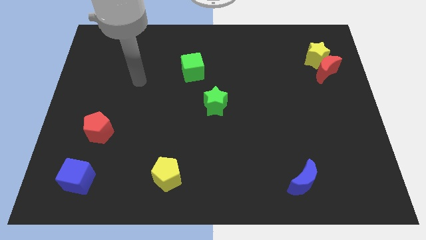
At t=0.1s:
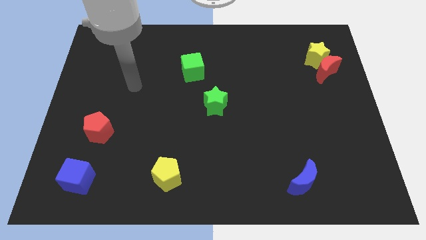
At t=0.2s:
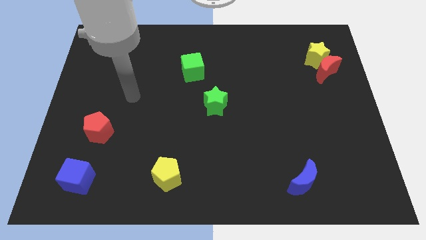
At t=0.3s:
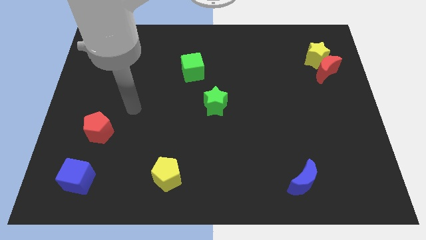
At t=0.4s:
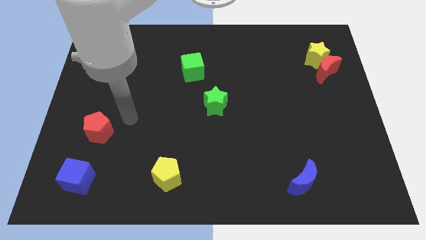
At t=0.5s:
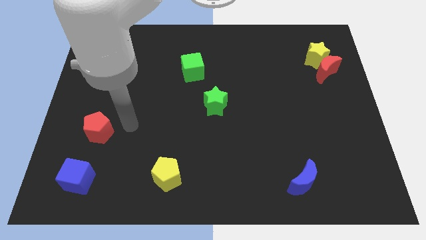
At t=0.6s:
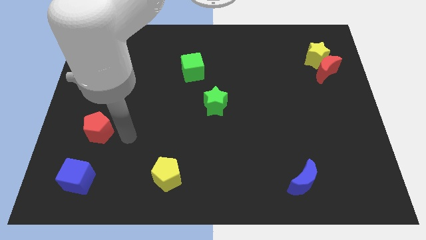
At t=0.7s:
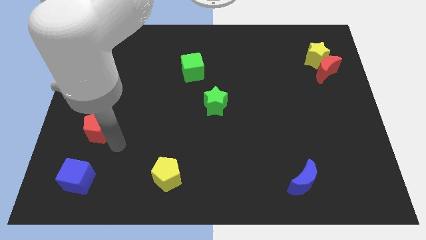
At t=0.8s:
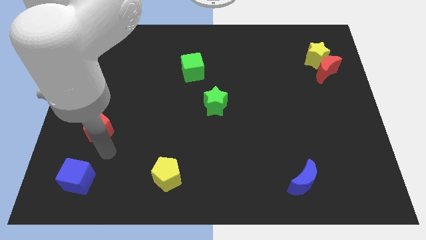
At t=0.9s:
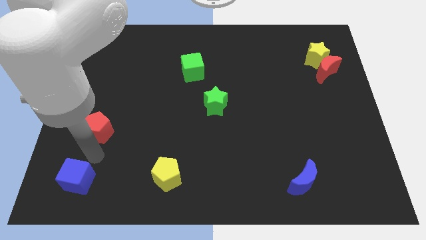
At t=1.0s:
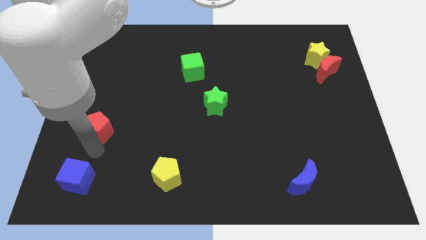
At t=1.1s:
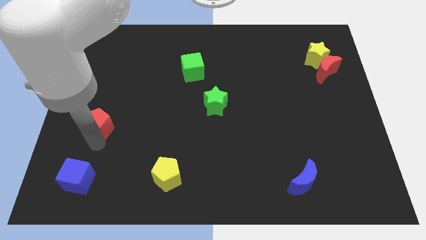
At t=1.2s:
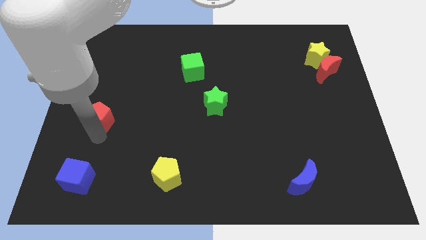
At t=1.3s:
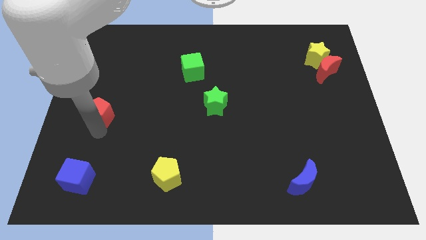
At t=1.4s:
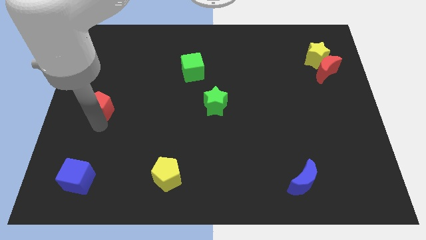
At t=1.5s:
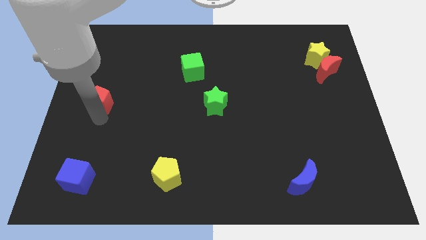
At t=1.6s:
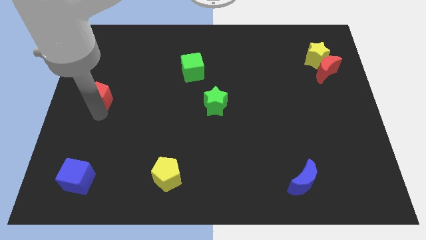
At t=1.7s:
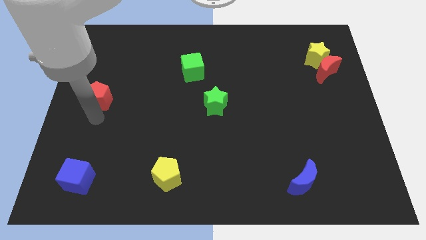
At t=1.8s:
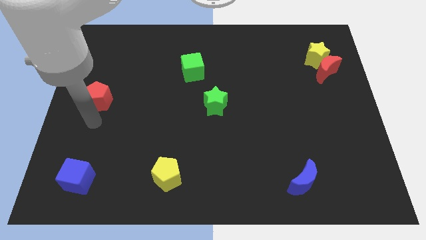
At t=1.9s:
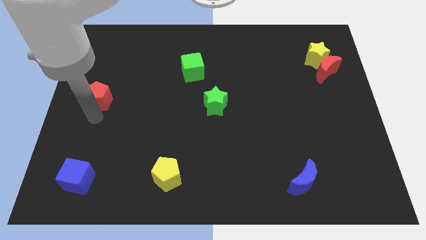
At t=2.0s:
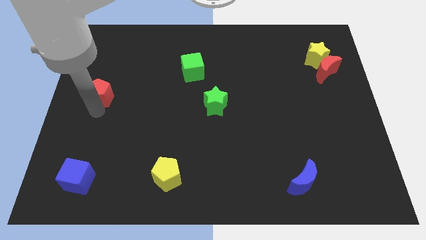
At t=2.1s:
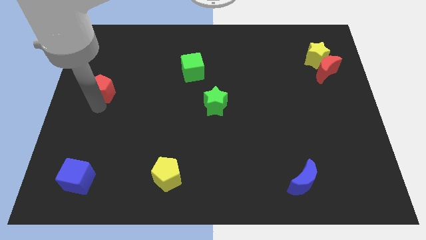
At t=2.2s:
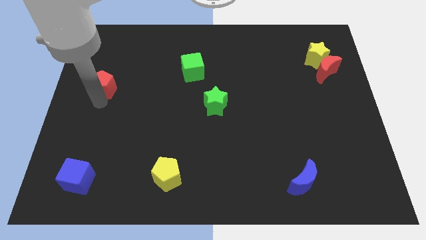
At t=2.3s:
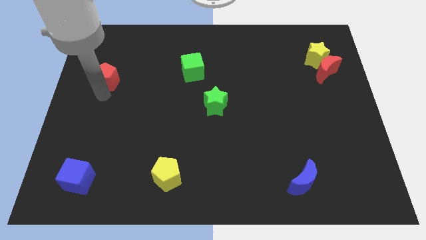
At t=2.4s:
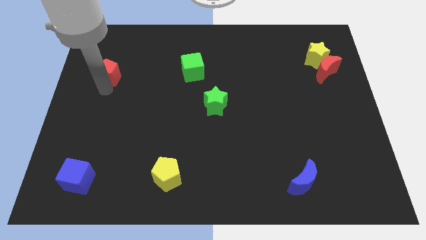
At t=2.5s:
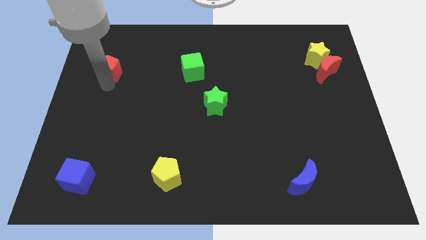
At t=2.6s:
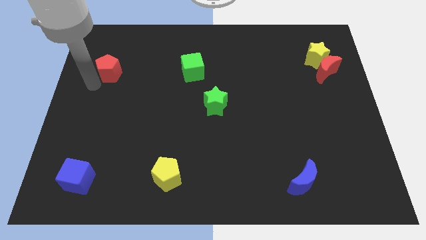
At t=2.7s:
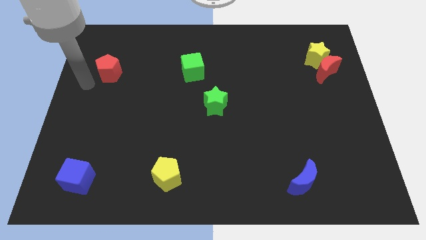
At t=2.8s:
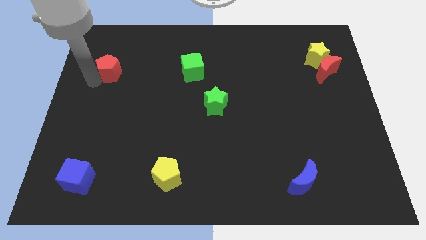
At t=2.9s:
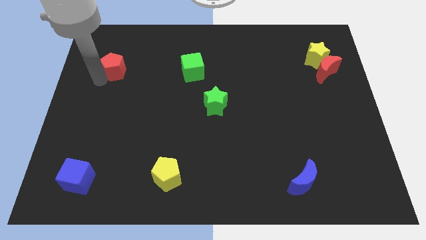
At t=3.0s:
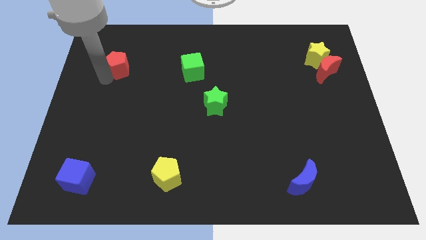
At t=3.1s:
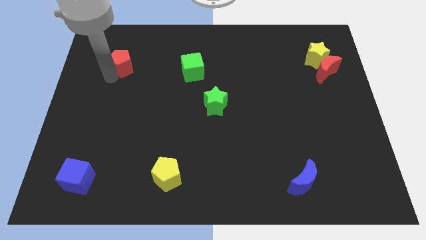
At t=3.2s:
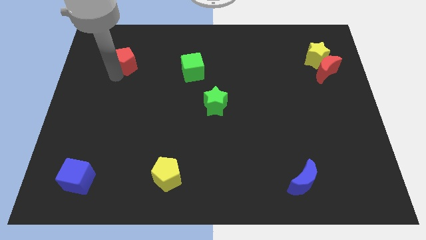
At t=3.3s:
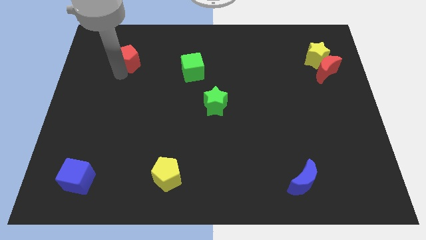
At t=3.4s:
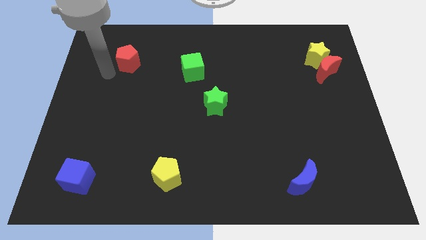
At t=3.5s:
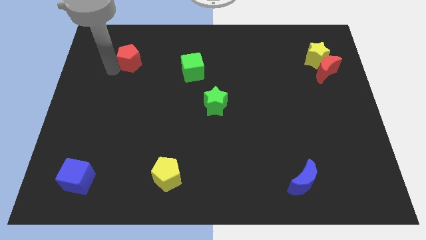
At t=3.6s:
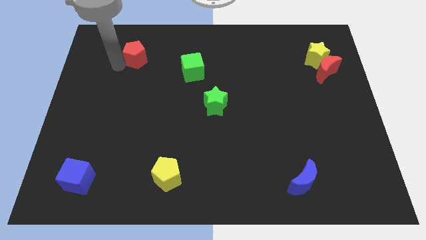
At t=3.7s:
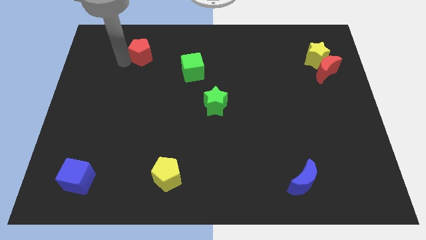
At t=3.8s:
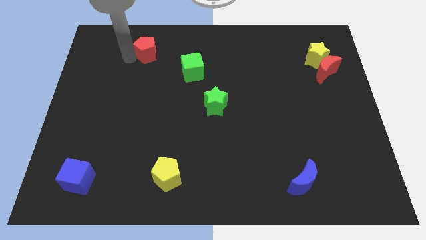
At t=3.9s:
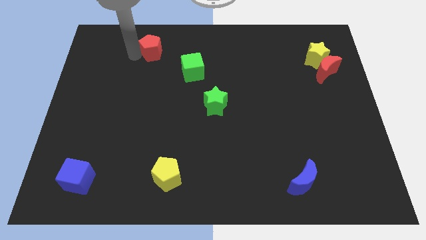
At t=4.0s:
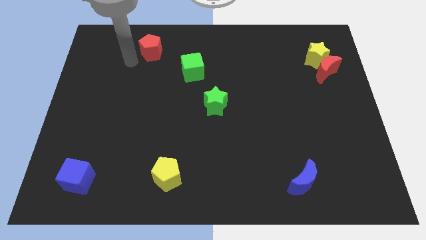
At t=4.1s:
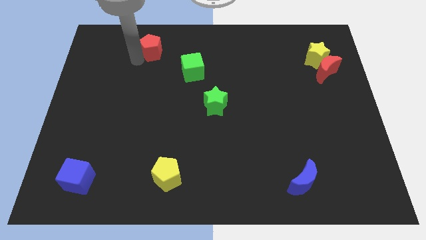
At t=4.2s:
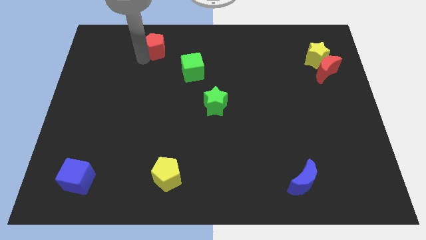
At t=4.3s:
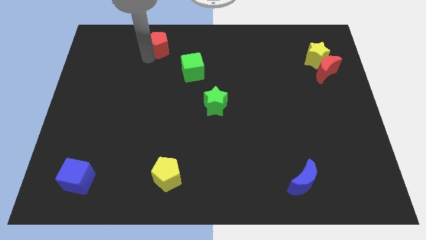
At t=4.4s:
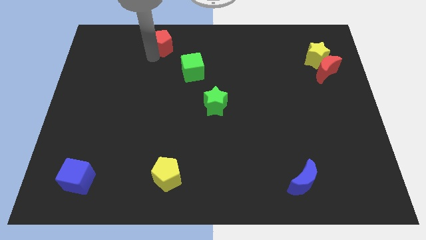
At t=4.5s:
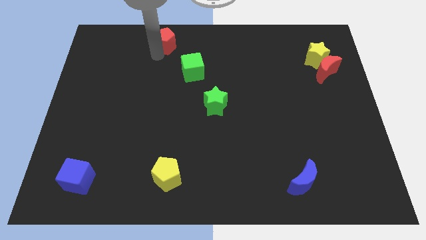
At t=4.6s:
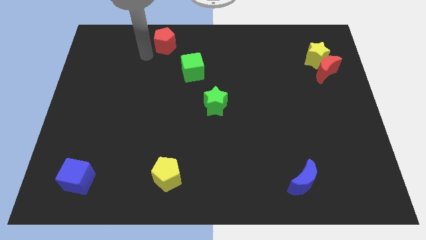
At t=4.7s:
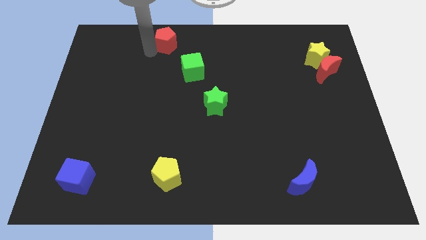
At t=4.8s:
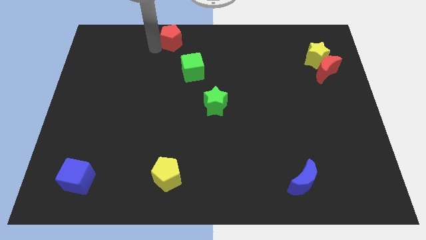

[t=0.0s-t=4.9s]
put the red pentagon to the top

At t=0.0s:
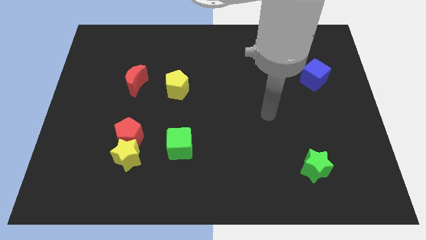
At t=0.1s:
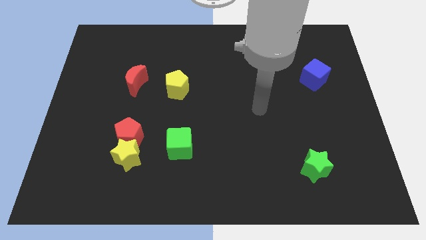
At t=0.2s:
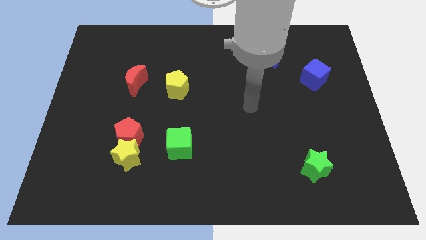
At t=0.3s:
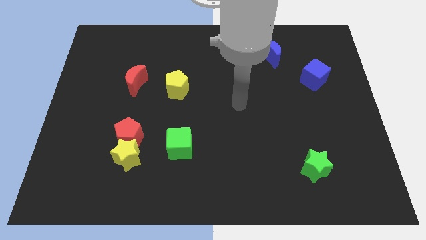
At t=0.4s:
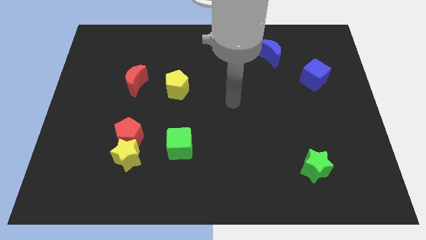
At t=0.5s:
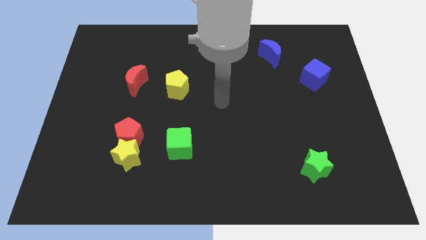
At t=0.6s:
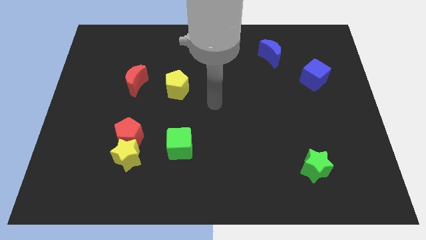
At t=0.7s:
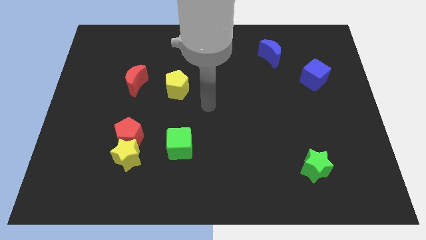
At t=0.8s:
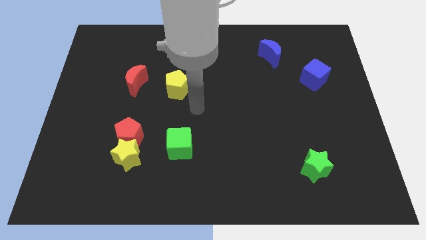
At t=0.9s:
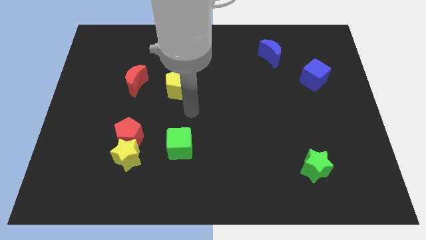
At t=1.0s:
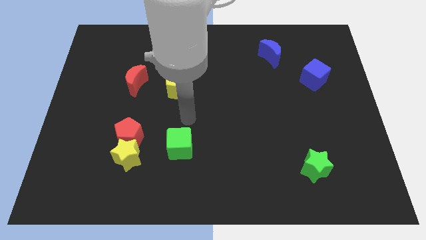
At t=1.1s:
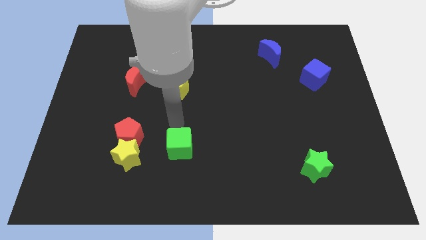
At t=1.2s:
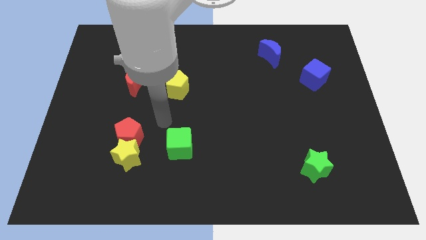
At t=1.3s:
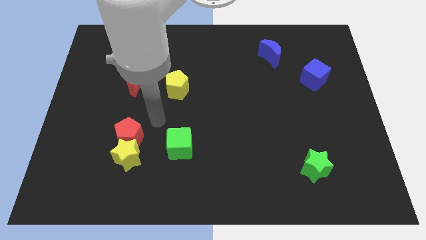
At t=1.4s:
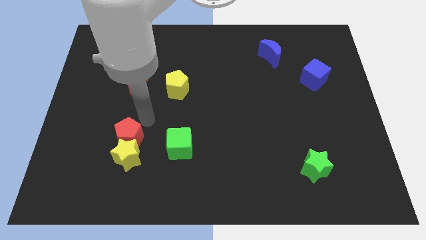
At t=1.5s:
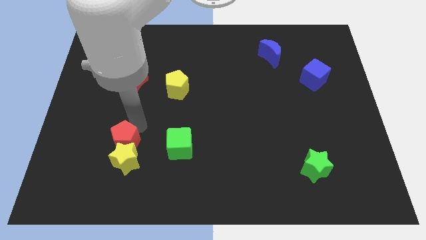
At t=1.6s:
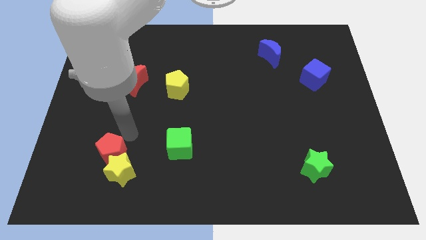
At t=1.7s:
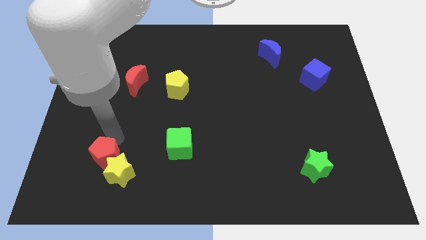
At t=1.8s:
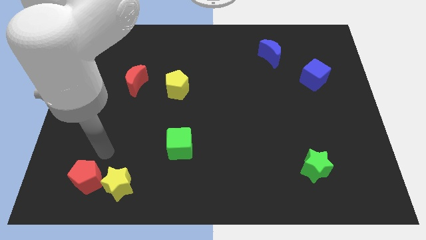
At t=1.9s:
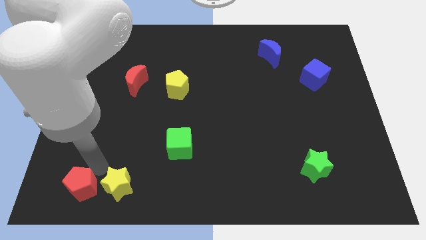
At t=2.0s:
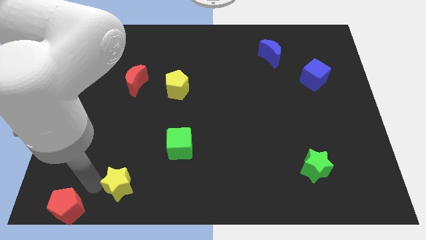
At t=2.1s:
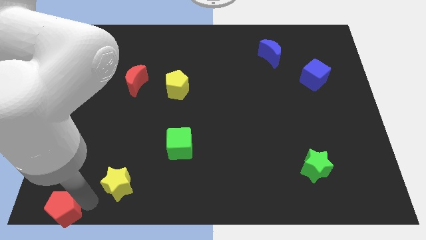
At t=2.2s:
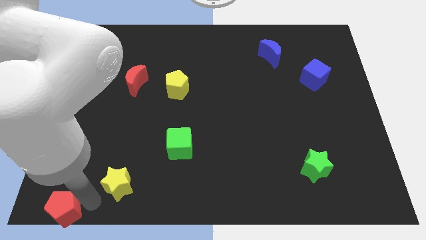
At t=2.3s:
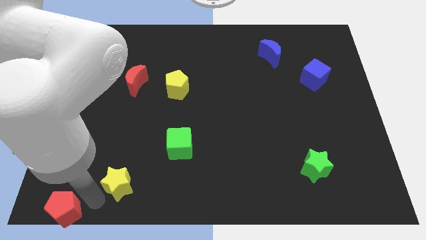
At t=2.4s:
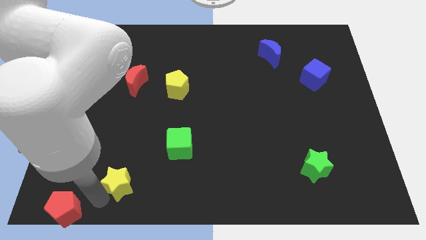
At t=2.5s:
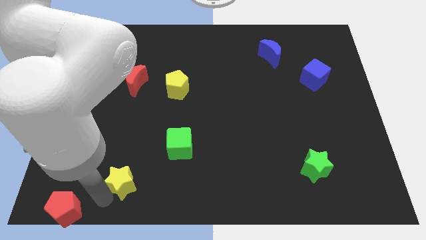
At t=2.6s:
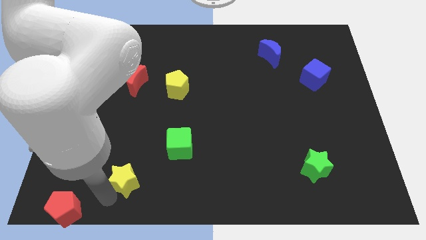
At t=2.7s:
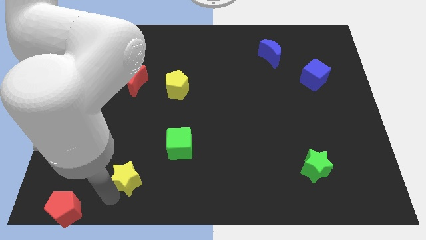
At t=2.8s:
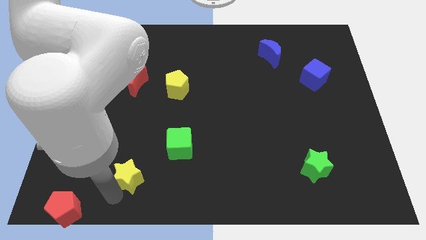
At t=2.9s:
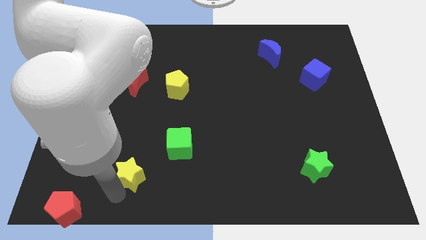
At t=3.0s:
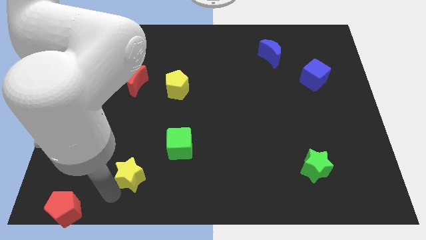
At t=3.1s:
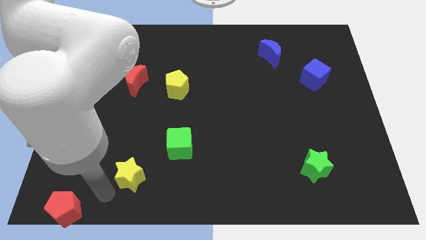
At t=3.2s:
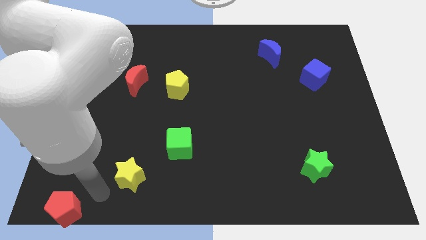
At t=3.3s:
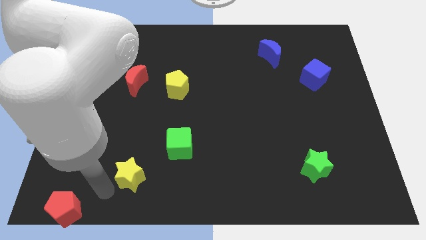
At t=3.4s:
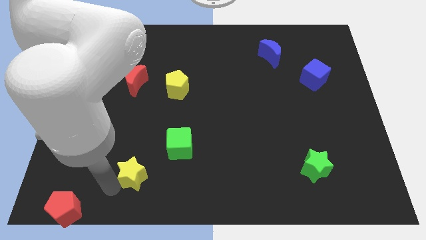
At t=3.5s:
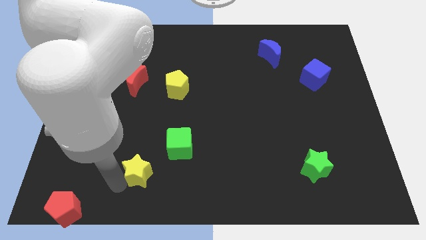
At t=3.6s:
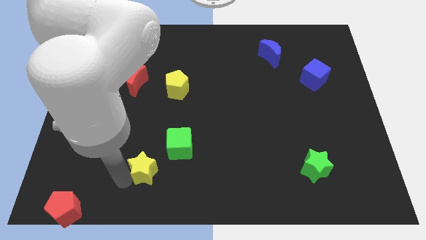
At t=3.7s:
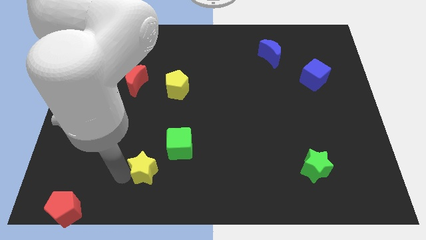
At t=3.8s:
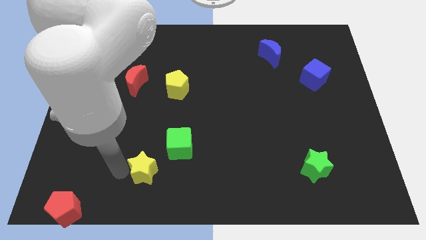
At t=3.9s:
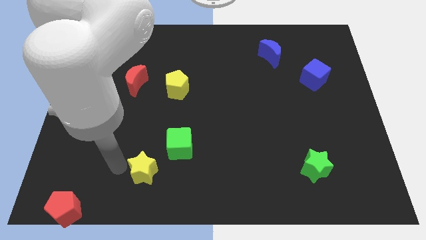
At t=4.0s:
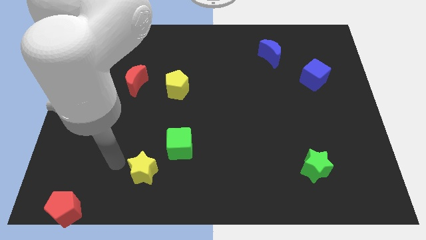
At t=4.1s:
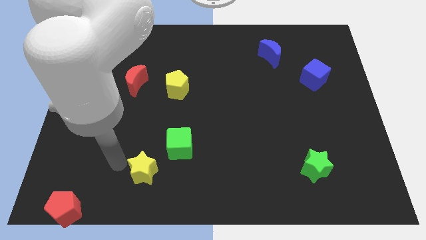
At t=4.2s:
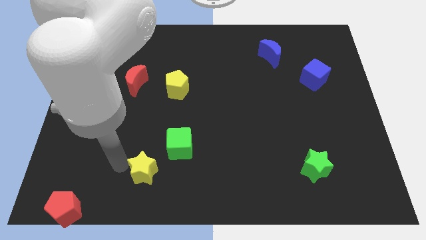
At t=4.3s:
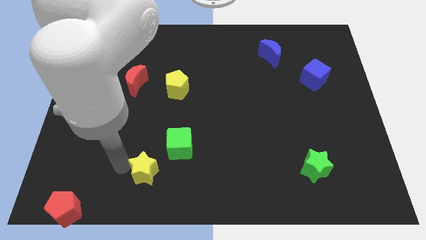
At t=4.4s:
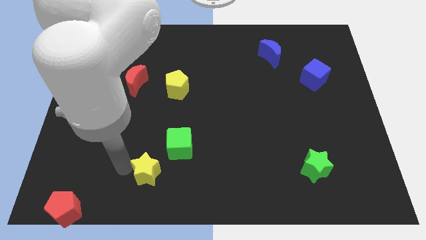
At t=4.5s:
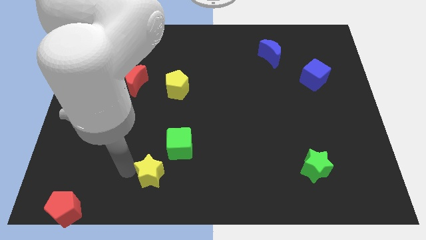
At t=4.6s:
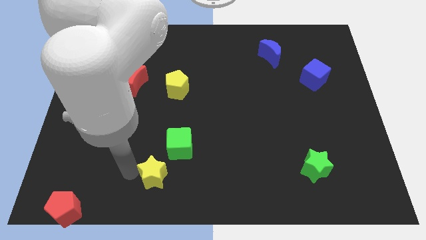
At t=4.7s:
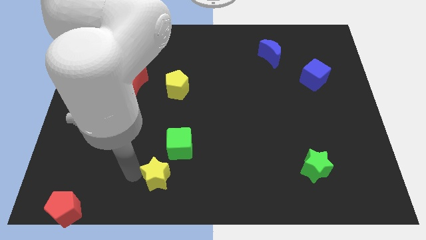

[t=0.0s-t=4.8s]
move the yellow star to the bottom
